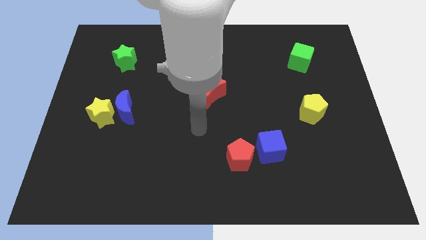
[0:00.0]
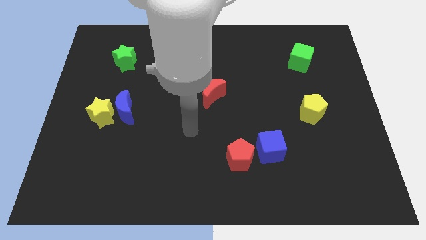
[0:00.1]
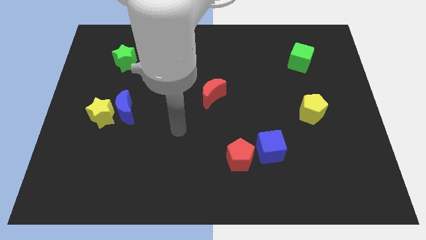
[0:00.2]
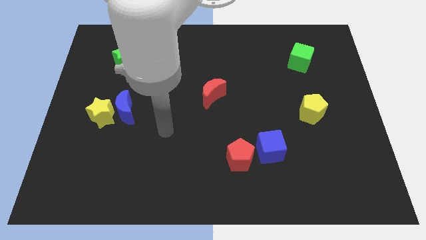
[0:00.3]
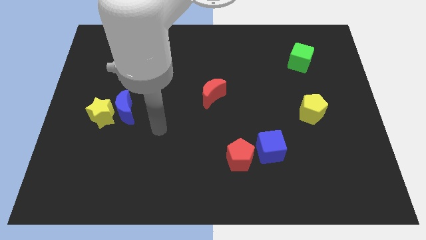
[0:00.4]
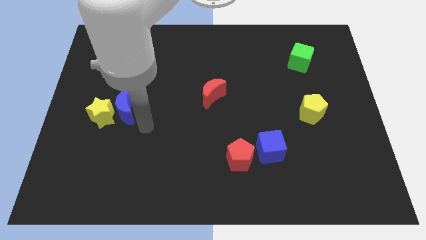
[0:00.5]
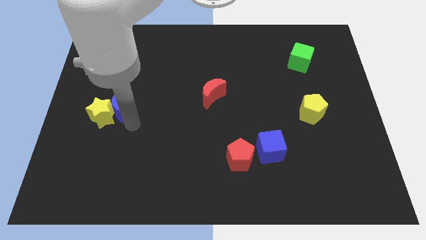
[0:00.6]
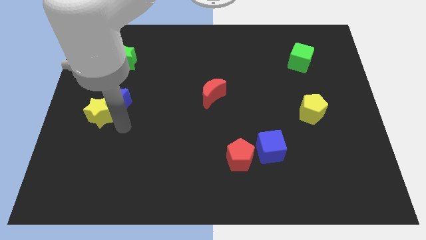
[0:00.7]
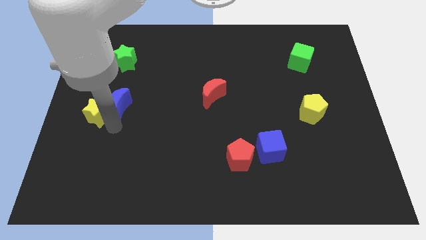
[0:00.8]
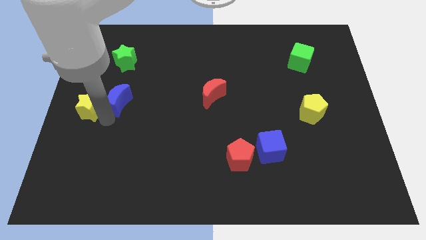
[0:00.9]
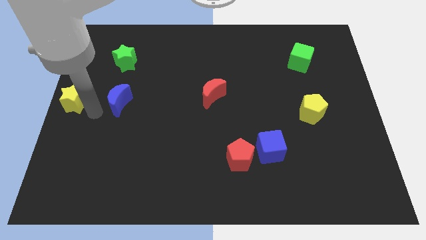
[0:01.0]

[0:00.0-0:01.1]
move the blue moon away from the yellow star

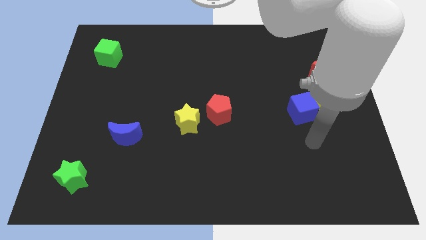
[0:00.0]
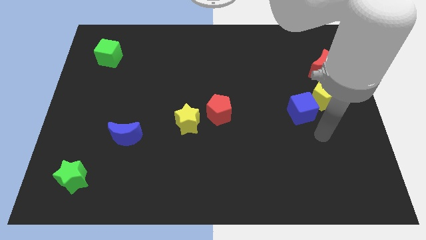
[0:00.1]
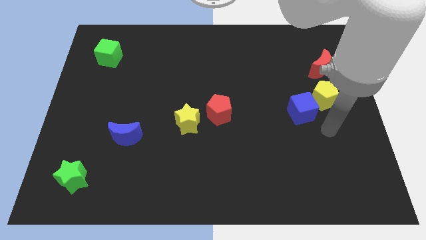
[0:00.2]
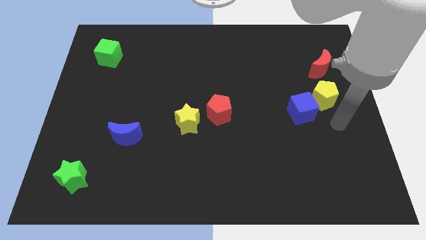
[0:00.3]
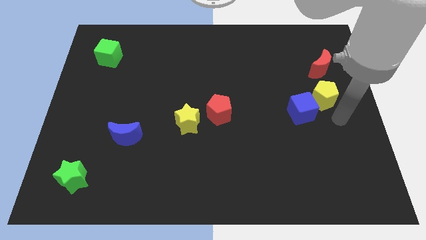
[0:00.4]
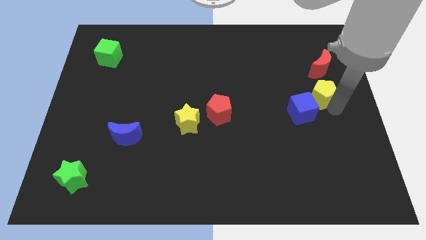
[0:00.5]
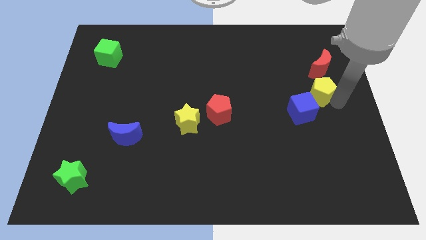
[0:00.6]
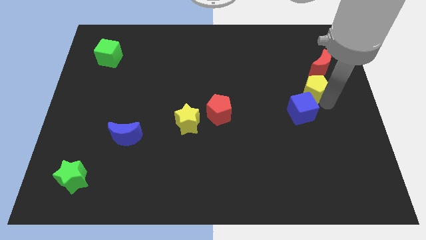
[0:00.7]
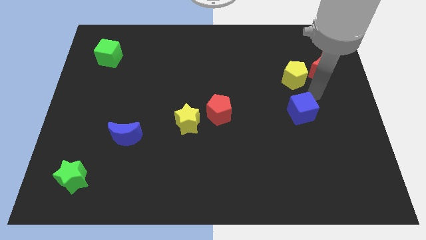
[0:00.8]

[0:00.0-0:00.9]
separate the blue cube from the yellow pentagon

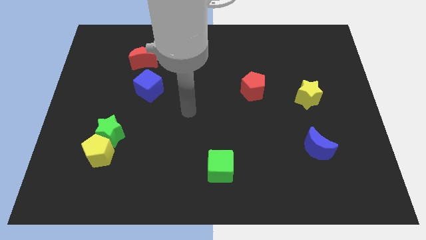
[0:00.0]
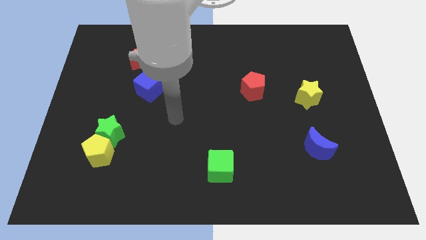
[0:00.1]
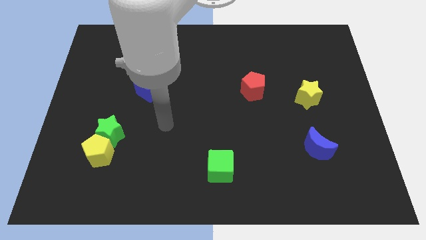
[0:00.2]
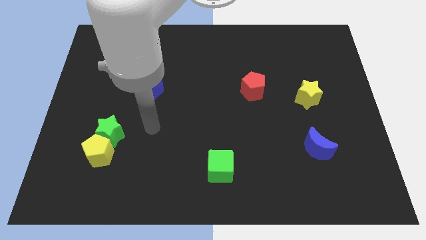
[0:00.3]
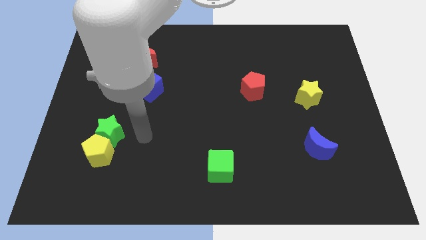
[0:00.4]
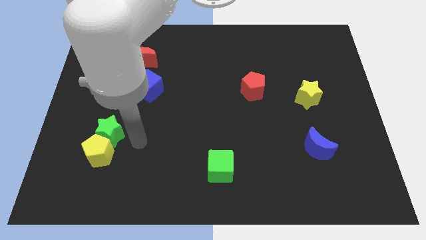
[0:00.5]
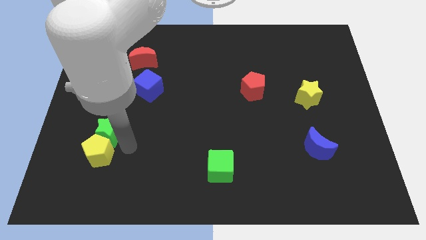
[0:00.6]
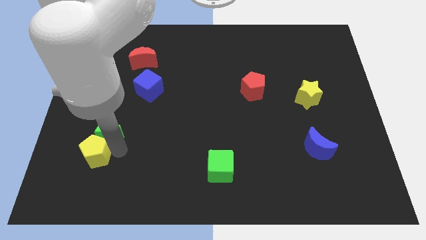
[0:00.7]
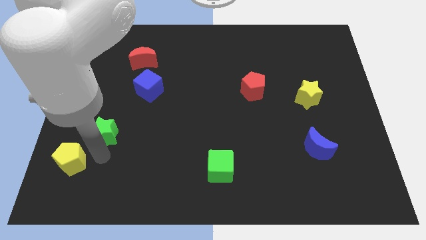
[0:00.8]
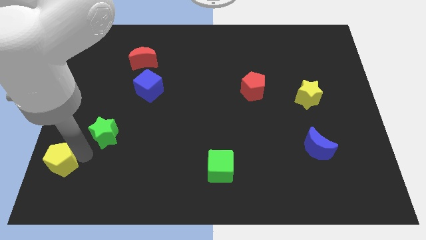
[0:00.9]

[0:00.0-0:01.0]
move the green star away from the yellow pentagon

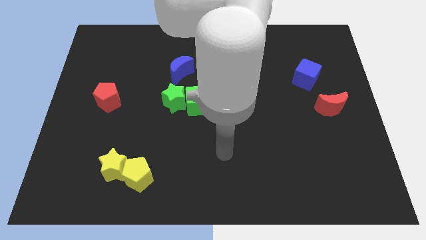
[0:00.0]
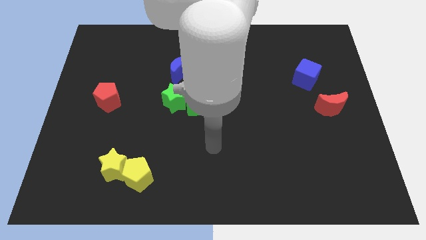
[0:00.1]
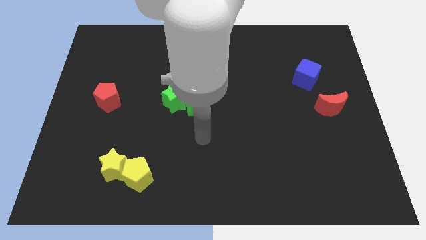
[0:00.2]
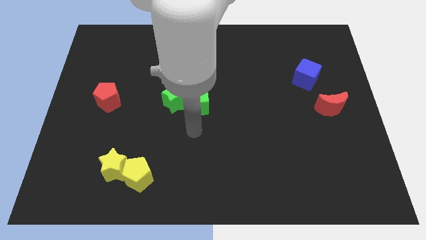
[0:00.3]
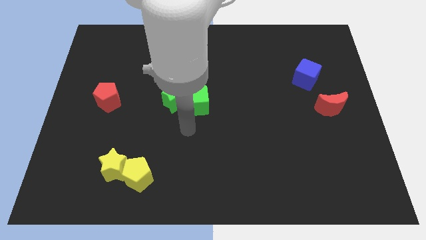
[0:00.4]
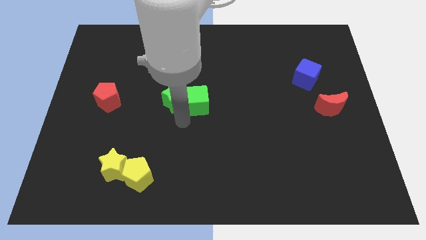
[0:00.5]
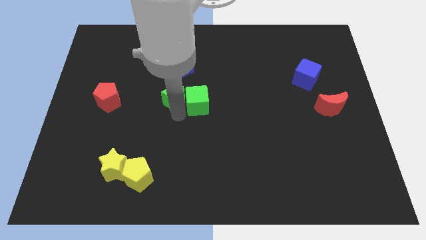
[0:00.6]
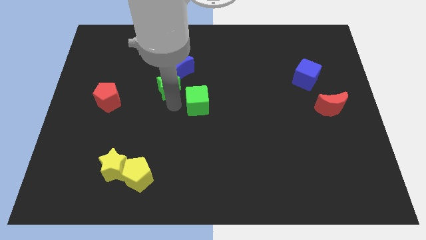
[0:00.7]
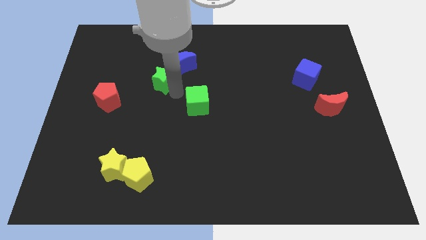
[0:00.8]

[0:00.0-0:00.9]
pull the green cube apart from the green star

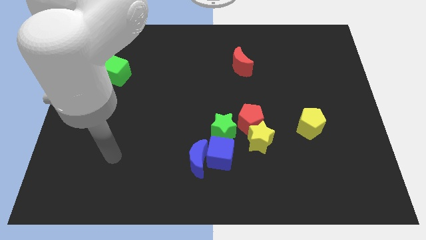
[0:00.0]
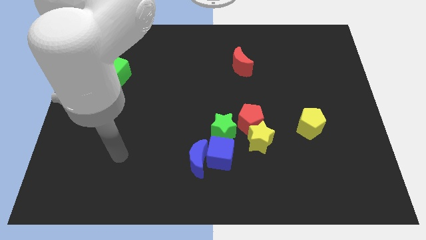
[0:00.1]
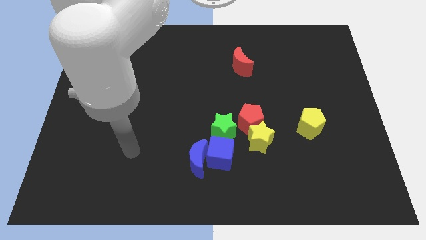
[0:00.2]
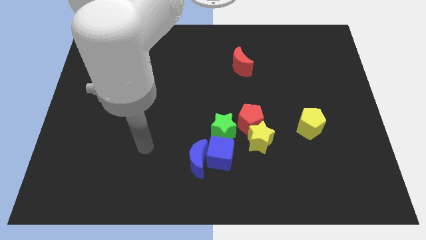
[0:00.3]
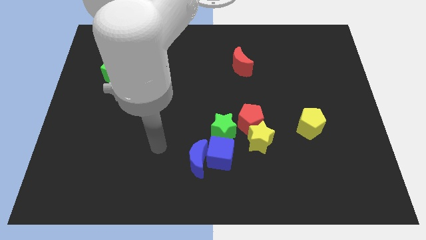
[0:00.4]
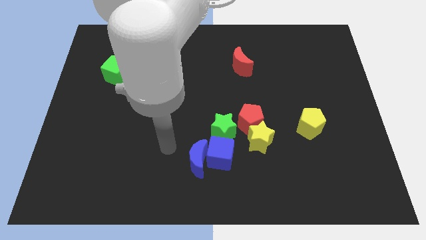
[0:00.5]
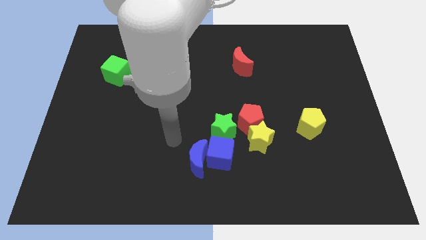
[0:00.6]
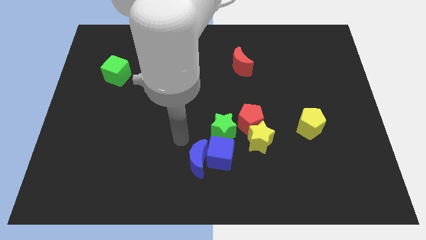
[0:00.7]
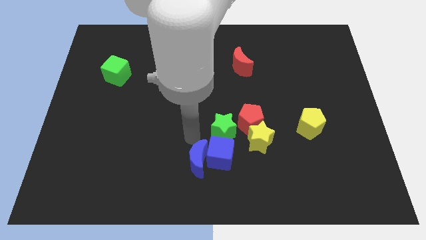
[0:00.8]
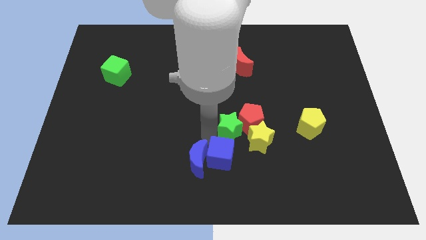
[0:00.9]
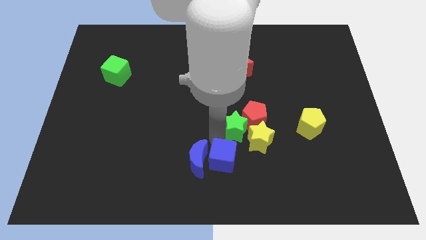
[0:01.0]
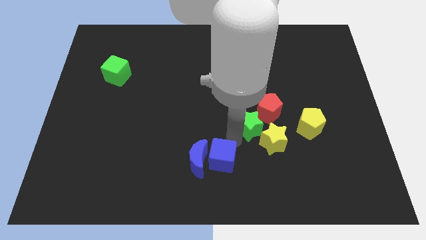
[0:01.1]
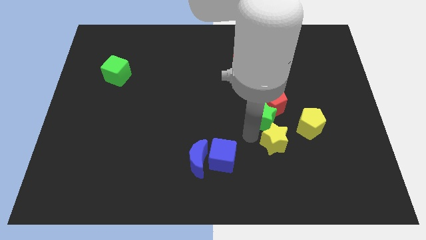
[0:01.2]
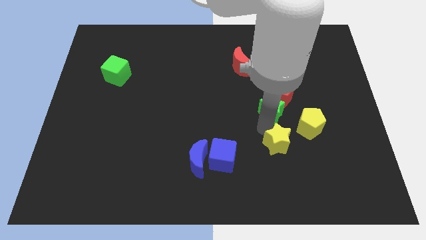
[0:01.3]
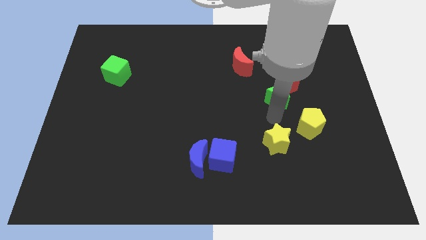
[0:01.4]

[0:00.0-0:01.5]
move the red pentagon away from the yellow star and green star

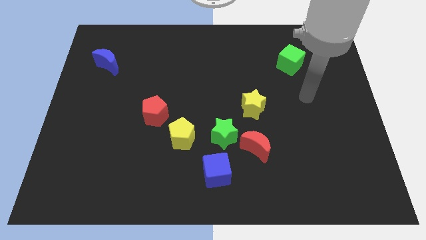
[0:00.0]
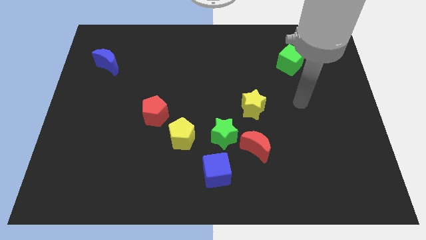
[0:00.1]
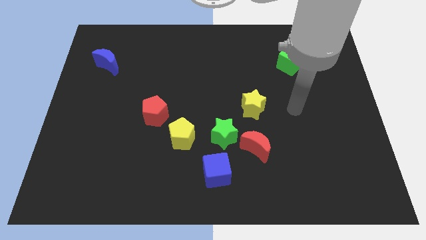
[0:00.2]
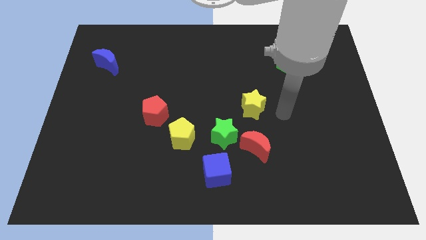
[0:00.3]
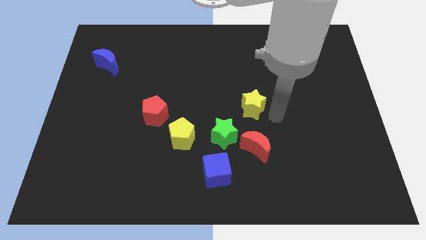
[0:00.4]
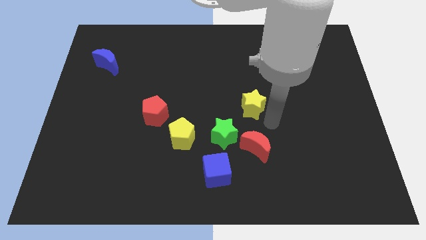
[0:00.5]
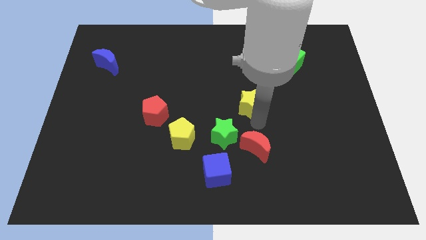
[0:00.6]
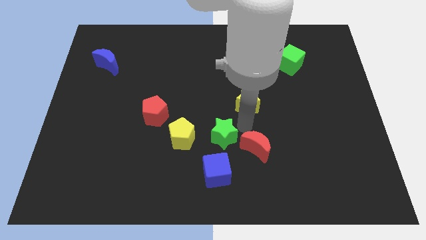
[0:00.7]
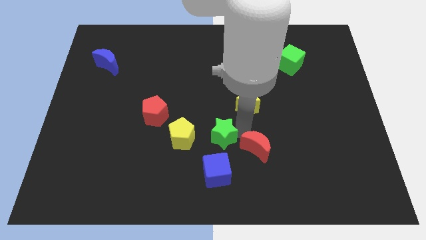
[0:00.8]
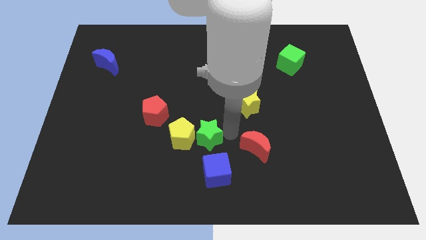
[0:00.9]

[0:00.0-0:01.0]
move the red moon away from the green star

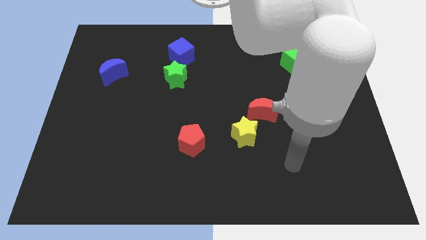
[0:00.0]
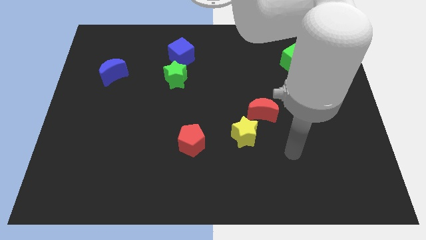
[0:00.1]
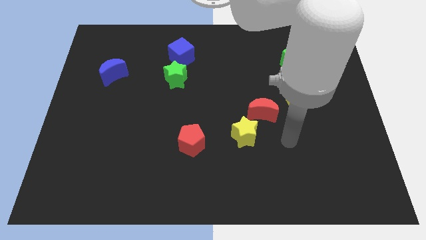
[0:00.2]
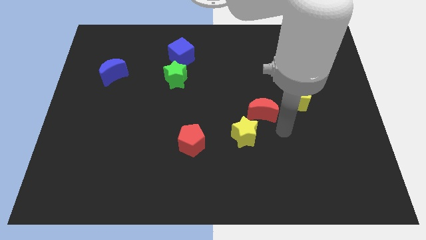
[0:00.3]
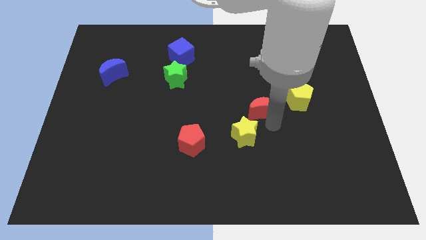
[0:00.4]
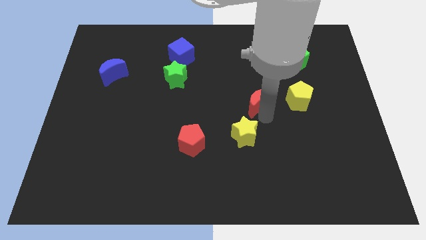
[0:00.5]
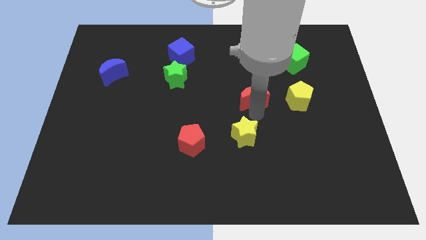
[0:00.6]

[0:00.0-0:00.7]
separate the yellow star from the red moon

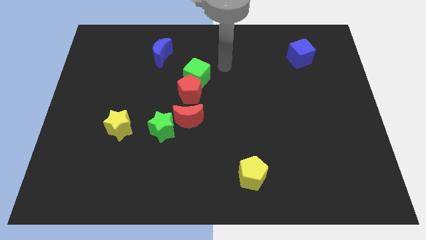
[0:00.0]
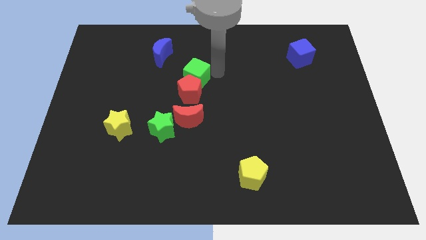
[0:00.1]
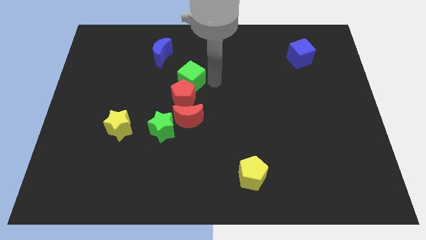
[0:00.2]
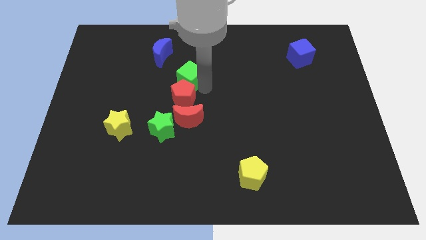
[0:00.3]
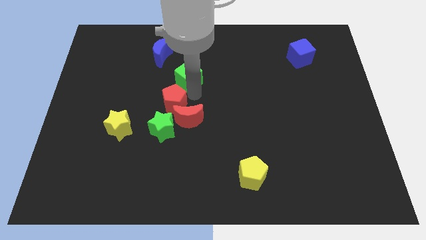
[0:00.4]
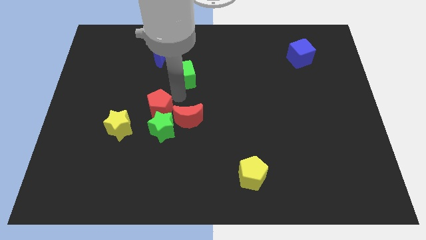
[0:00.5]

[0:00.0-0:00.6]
pull the green cube apart from the red pentagon

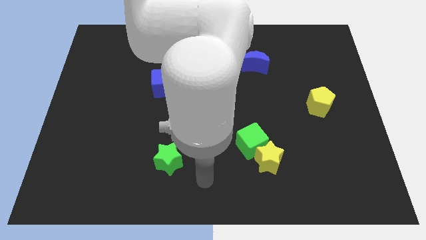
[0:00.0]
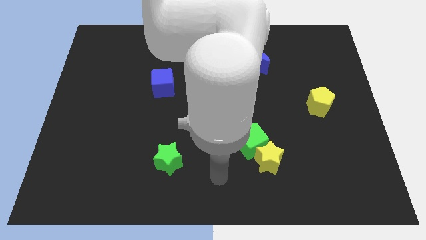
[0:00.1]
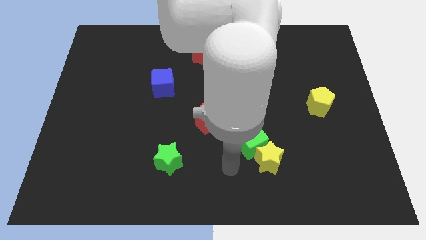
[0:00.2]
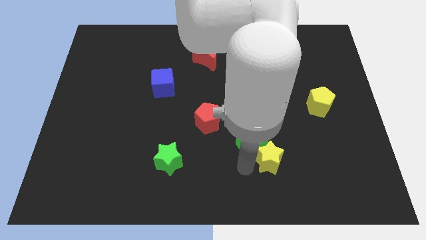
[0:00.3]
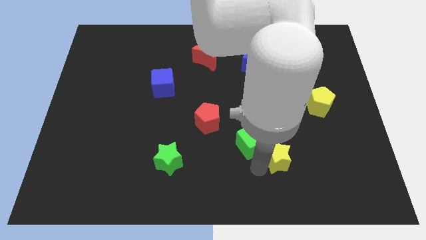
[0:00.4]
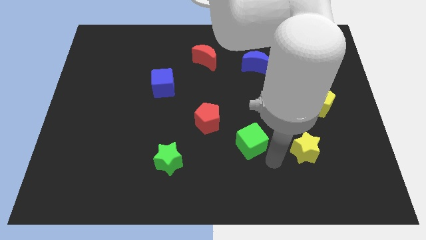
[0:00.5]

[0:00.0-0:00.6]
pull the green cube apart from the yellow star

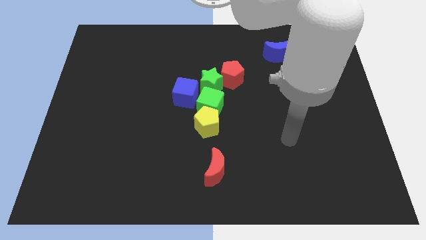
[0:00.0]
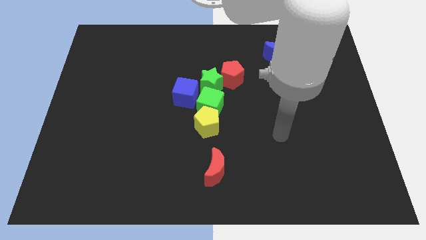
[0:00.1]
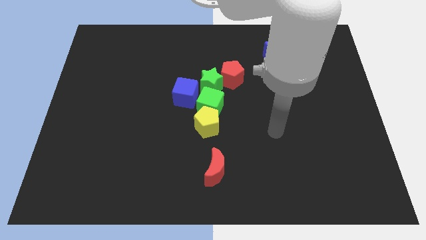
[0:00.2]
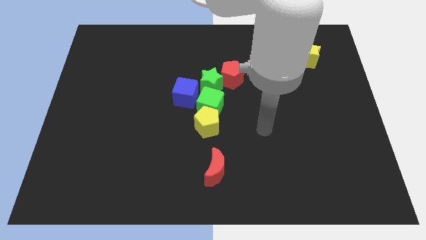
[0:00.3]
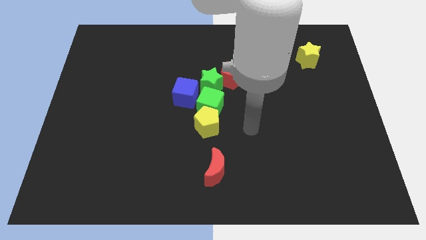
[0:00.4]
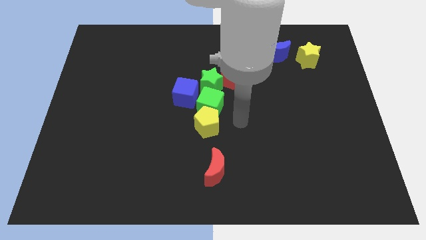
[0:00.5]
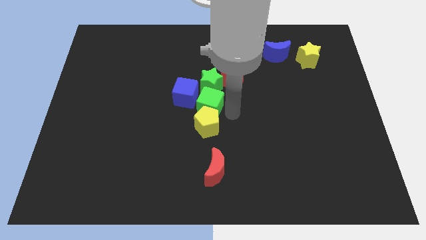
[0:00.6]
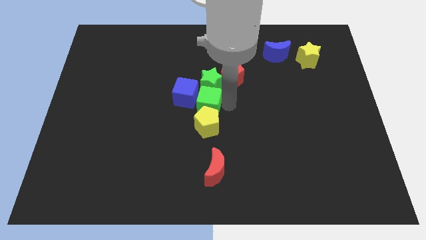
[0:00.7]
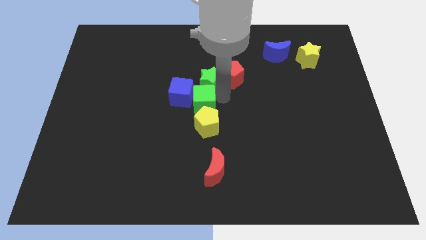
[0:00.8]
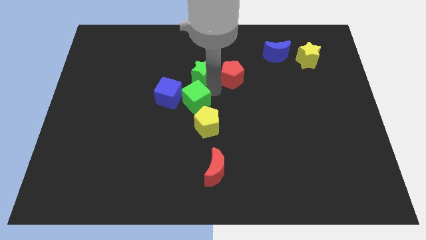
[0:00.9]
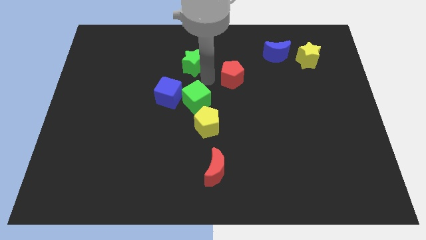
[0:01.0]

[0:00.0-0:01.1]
separate the red pentagon from the green star
